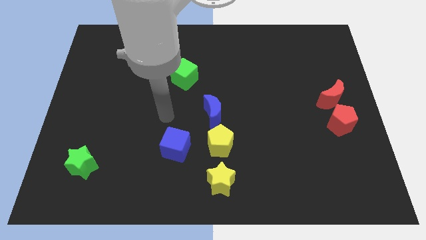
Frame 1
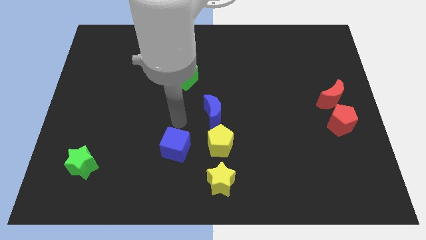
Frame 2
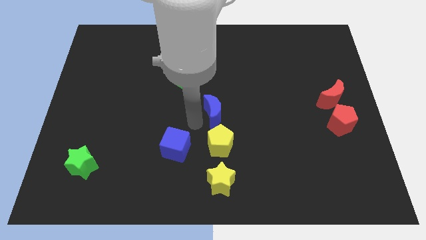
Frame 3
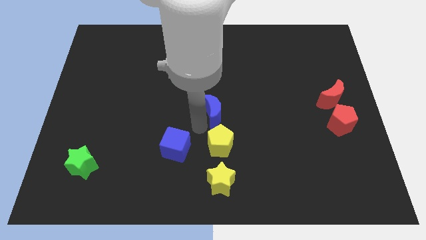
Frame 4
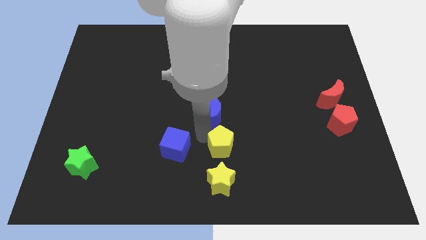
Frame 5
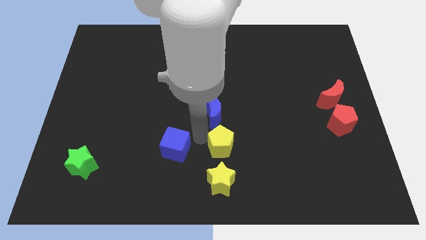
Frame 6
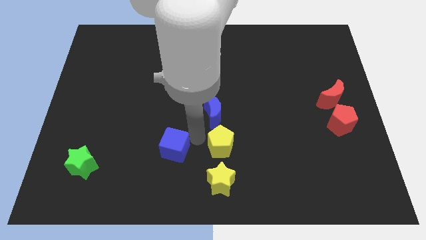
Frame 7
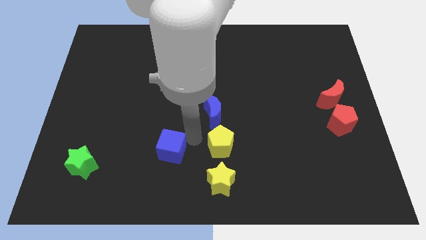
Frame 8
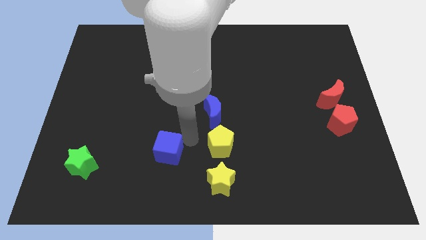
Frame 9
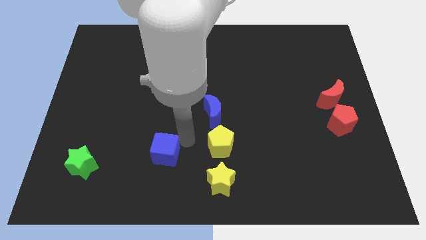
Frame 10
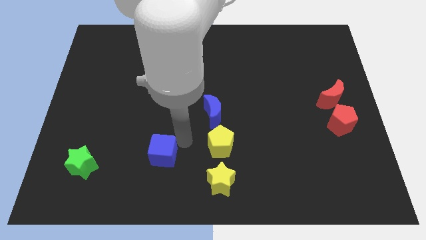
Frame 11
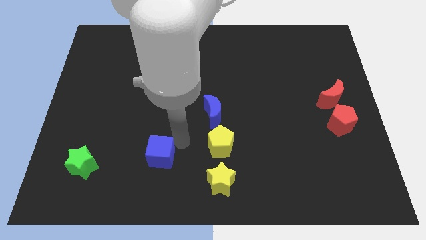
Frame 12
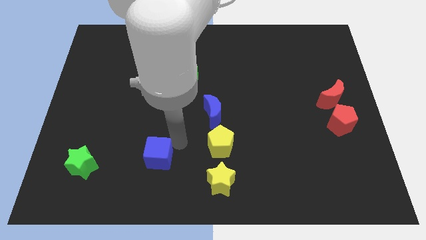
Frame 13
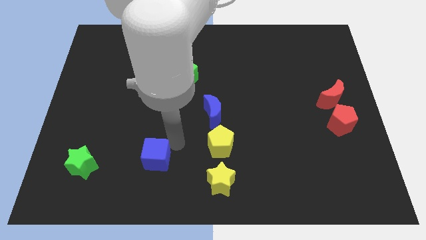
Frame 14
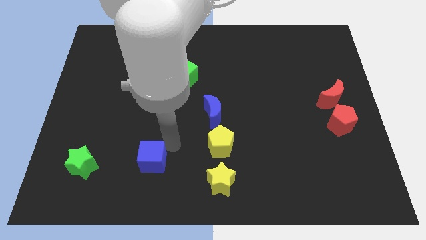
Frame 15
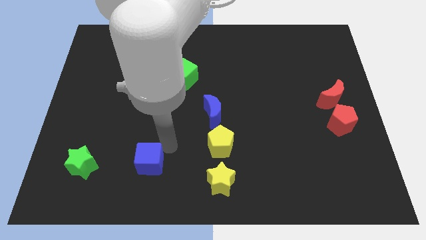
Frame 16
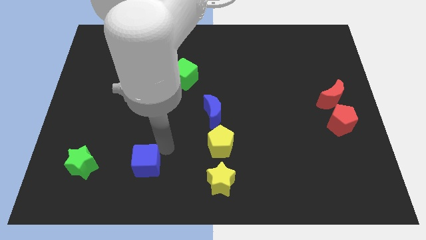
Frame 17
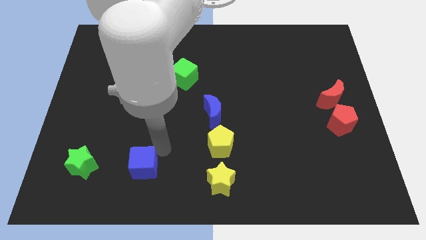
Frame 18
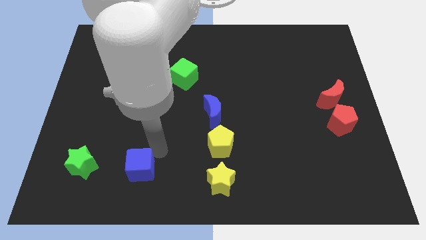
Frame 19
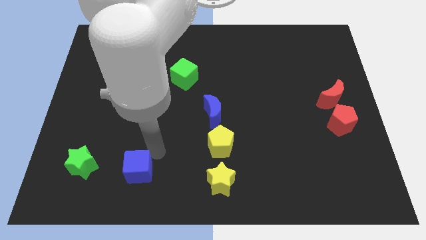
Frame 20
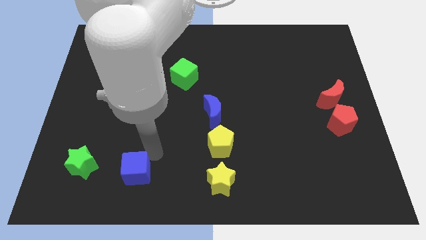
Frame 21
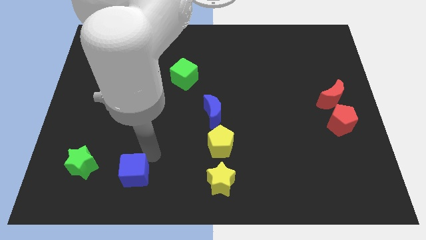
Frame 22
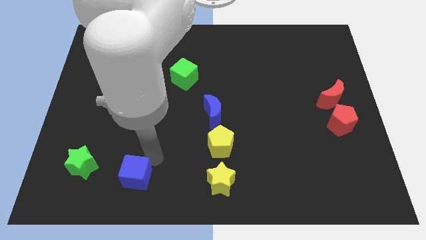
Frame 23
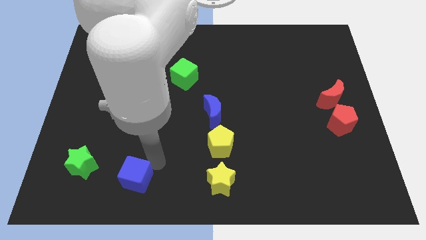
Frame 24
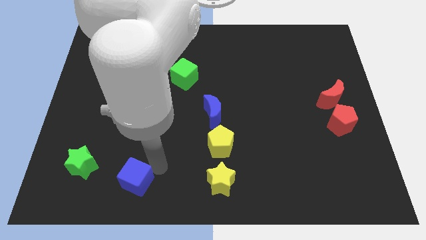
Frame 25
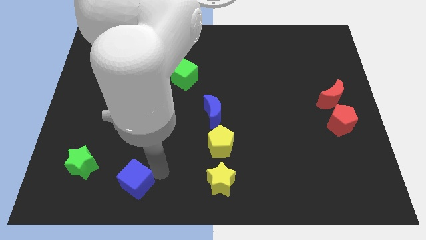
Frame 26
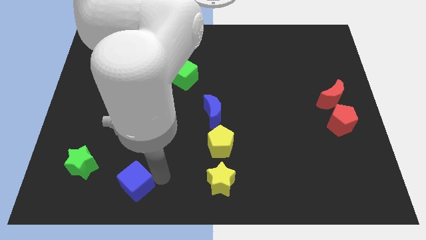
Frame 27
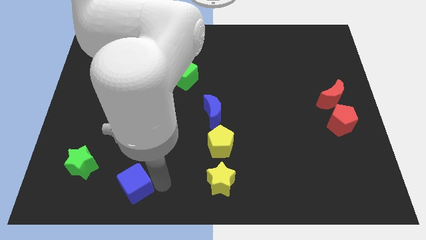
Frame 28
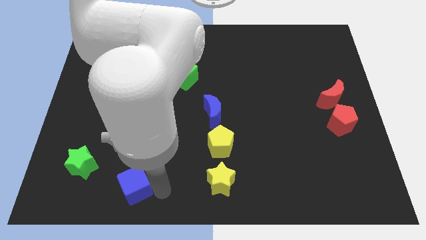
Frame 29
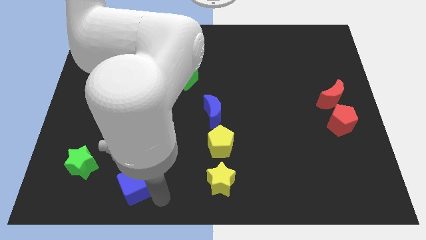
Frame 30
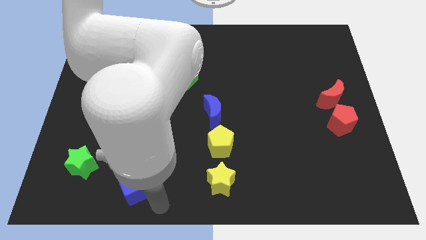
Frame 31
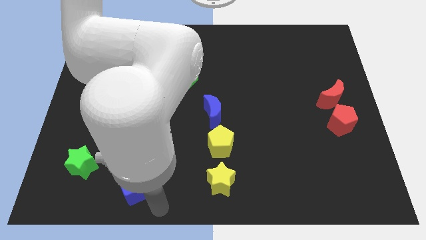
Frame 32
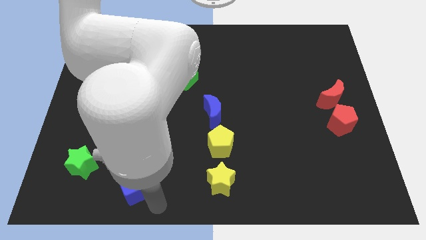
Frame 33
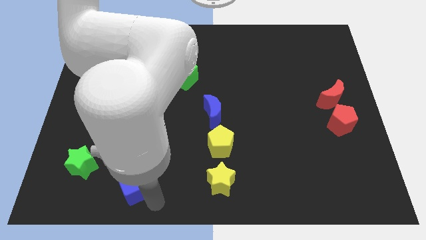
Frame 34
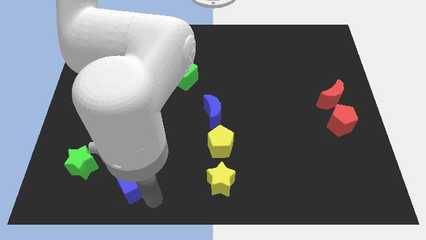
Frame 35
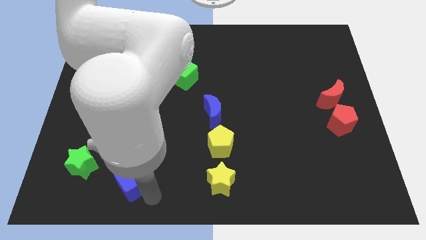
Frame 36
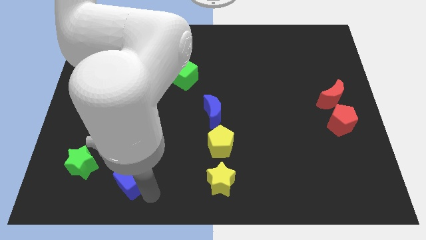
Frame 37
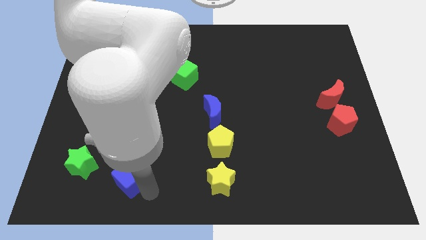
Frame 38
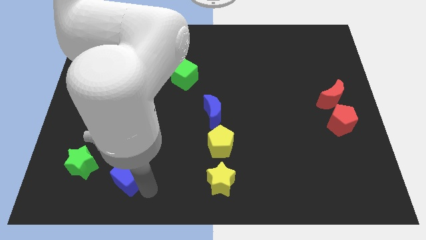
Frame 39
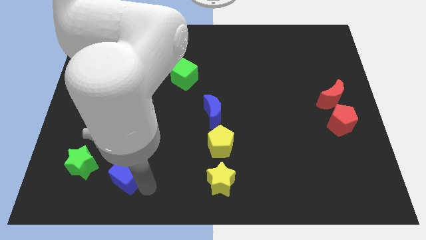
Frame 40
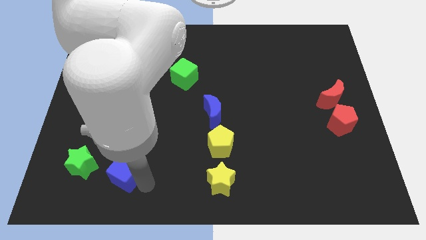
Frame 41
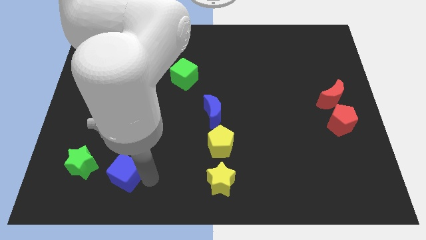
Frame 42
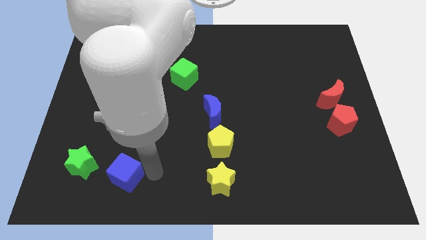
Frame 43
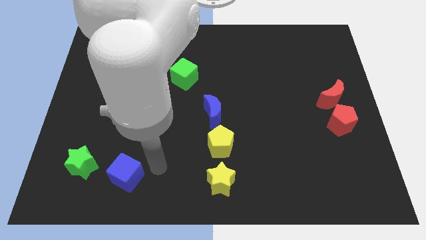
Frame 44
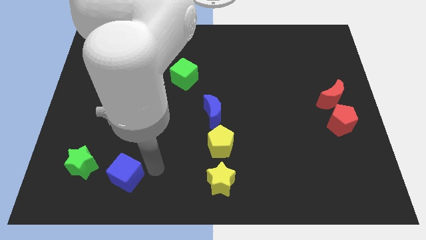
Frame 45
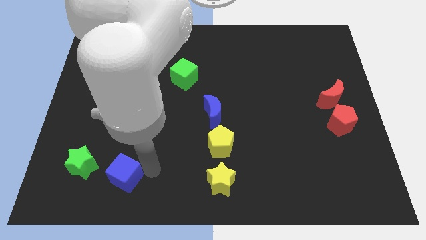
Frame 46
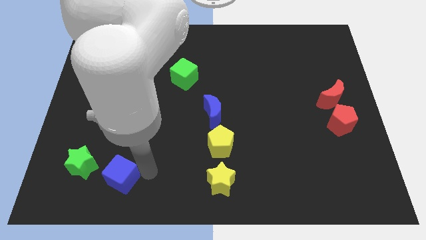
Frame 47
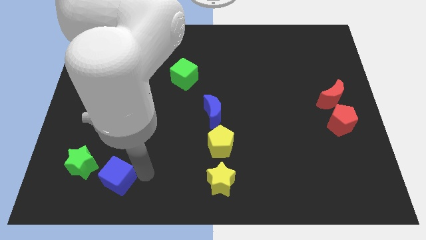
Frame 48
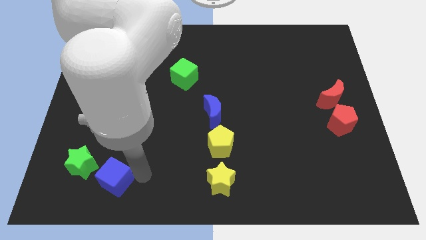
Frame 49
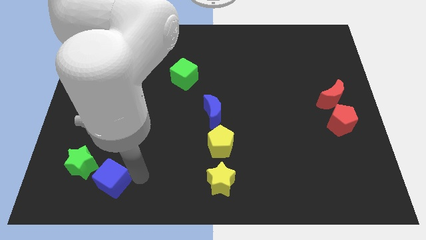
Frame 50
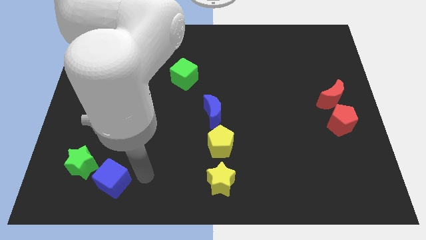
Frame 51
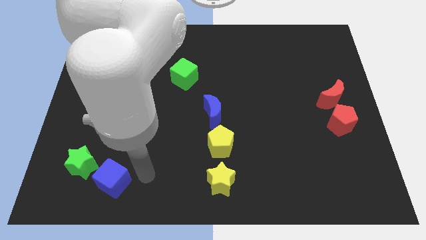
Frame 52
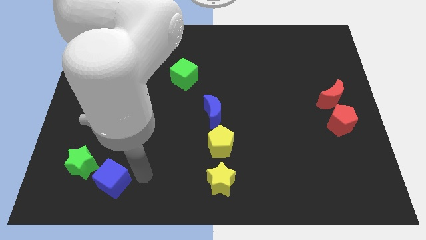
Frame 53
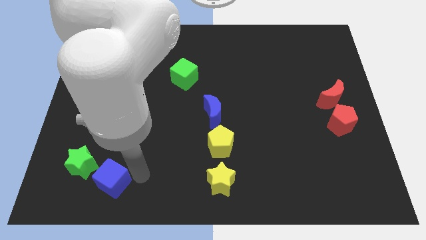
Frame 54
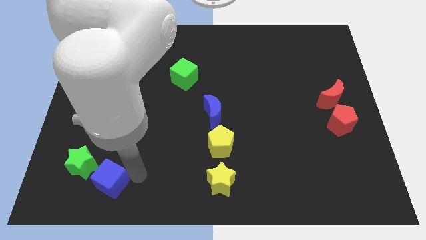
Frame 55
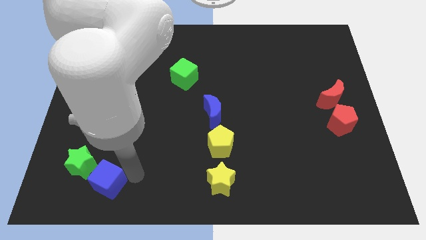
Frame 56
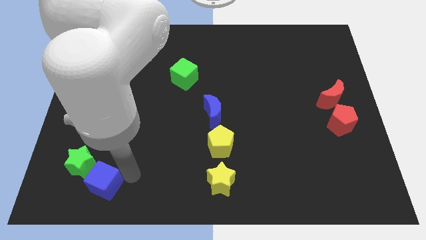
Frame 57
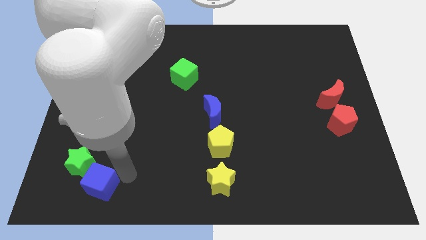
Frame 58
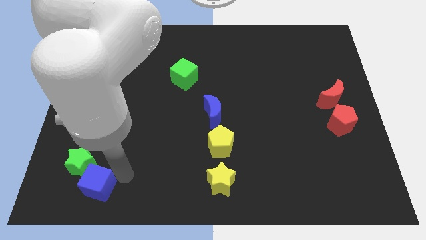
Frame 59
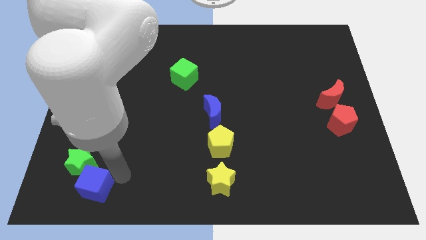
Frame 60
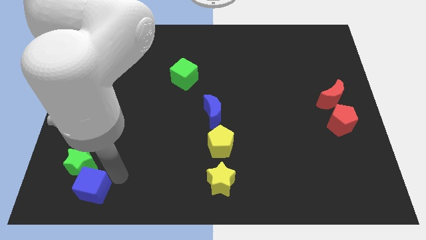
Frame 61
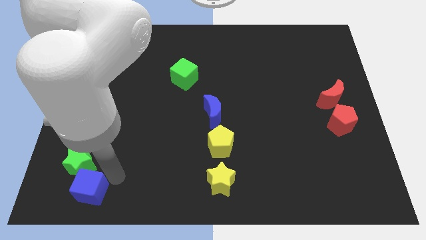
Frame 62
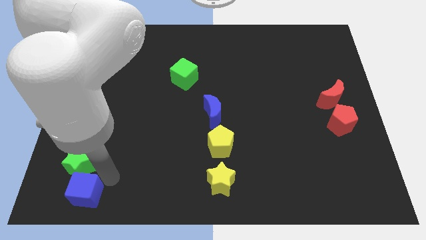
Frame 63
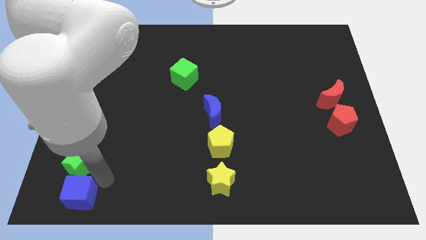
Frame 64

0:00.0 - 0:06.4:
move the blue cube to the bottom left of the board

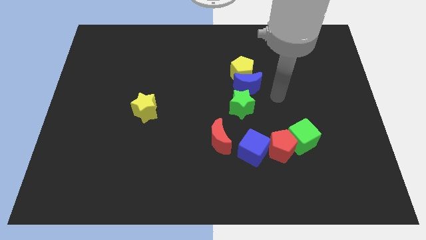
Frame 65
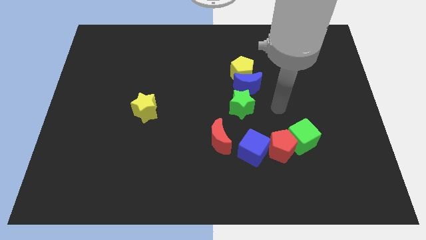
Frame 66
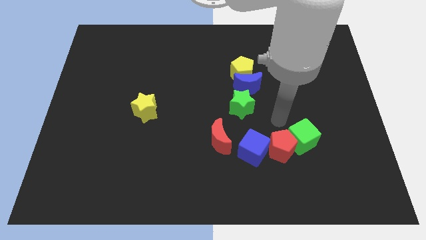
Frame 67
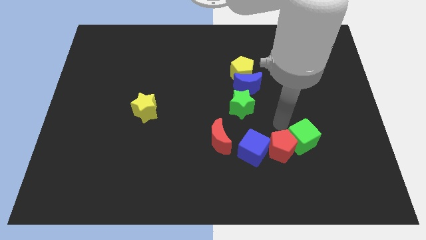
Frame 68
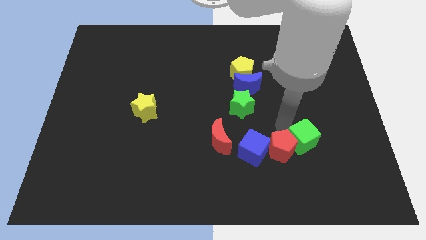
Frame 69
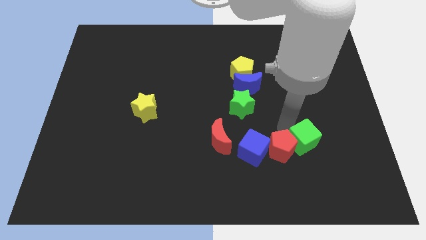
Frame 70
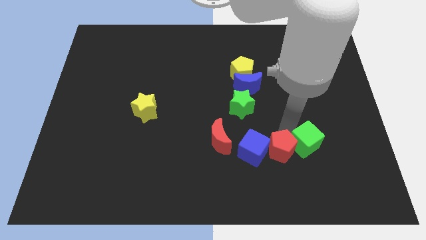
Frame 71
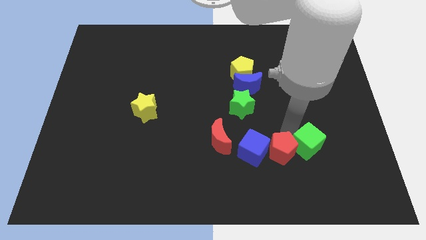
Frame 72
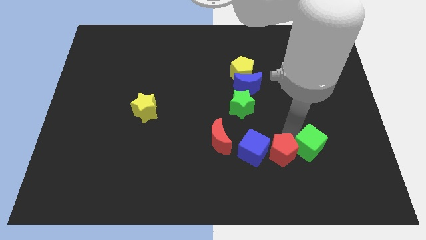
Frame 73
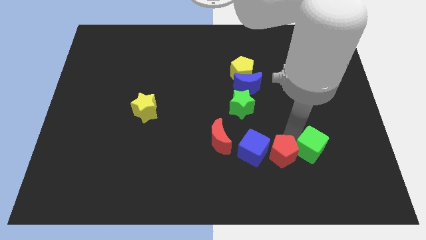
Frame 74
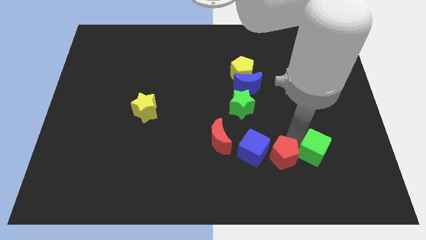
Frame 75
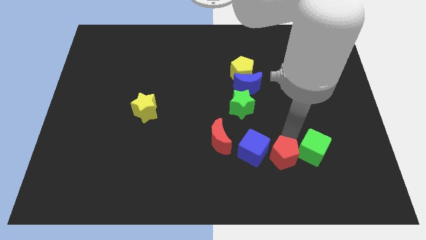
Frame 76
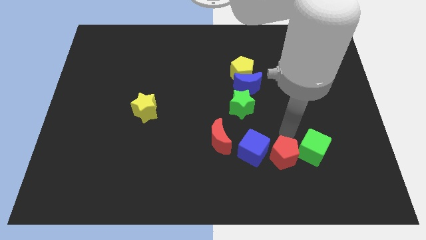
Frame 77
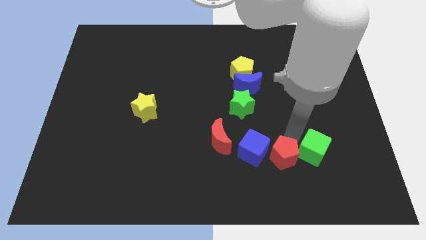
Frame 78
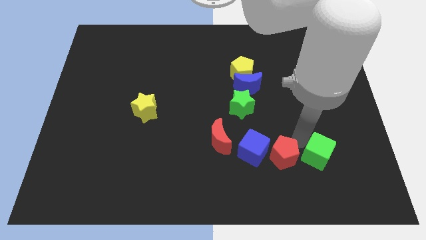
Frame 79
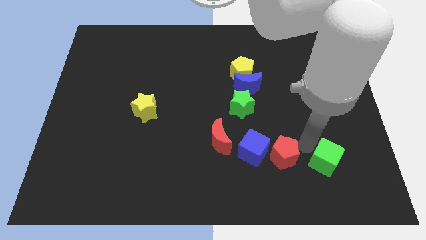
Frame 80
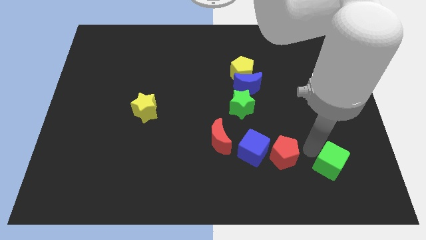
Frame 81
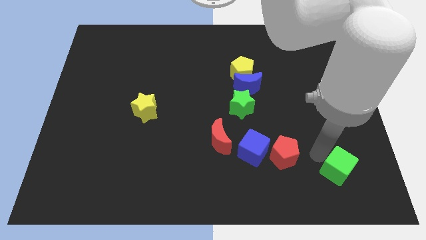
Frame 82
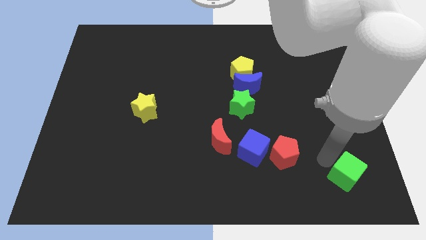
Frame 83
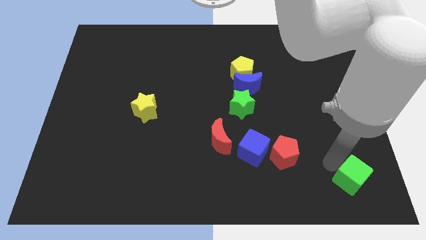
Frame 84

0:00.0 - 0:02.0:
slide the green cube to the lower right corner
